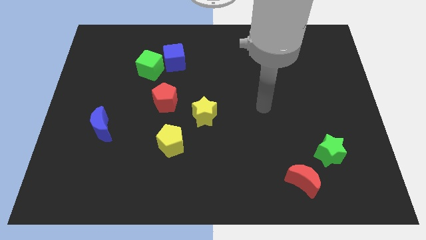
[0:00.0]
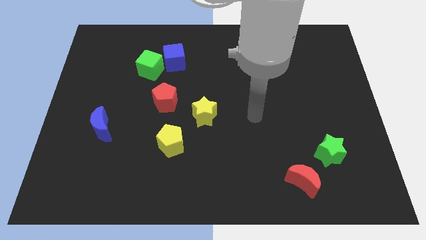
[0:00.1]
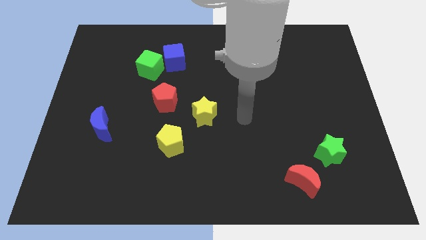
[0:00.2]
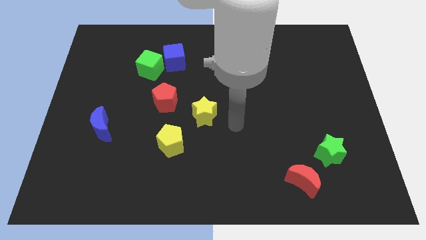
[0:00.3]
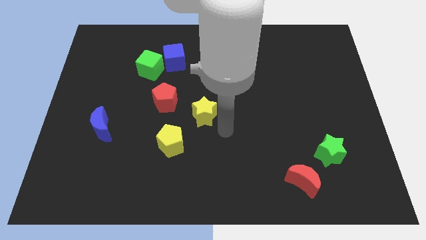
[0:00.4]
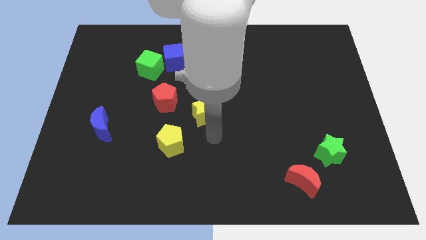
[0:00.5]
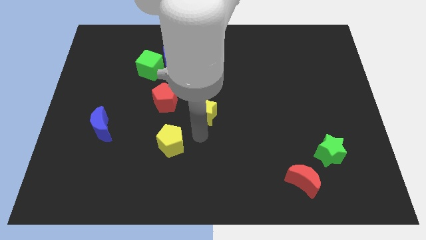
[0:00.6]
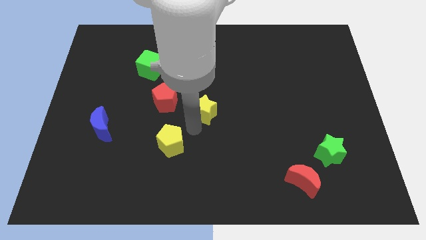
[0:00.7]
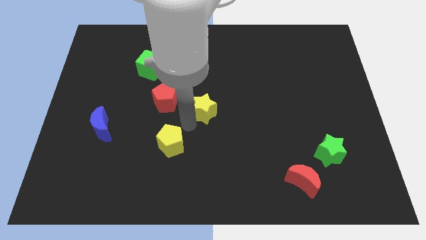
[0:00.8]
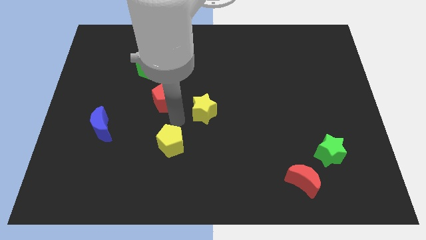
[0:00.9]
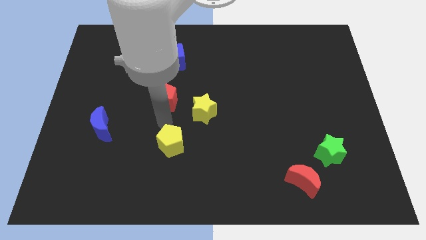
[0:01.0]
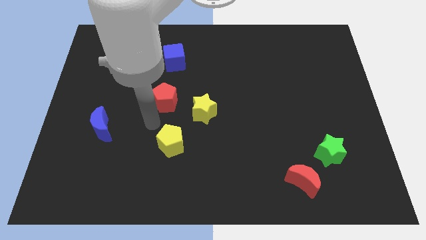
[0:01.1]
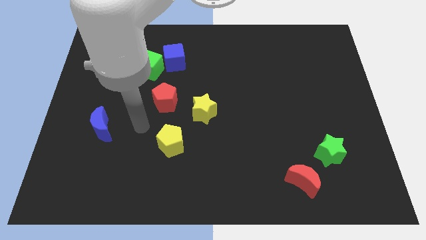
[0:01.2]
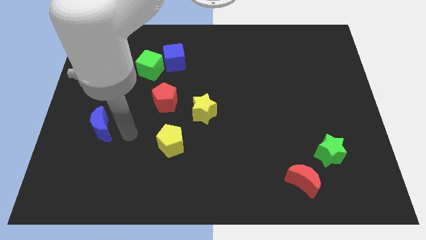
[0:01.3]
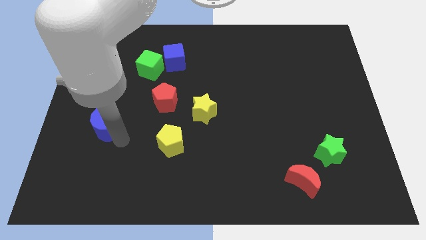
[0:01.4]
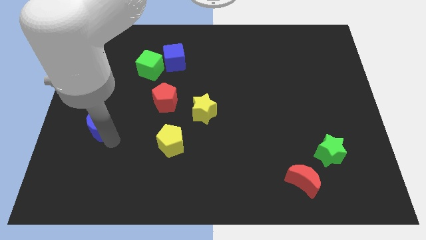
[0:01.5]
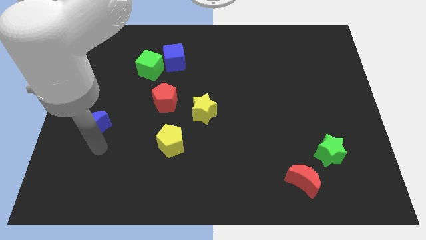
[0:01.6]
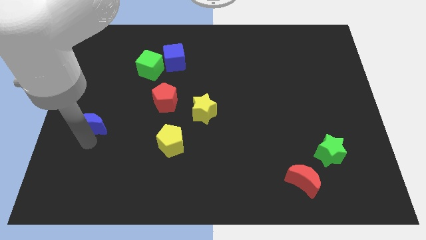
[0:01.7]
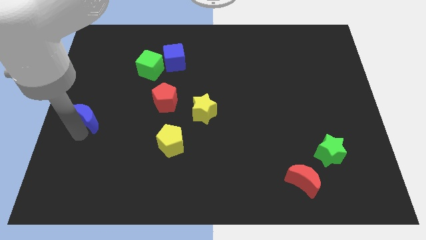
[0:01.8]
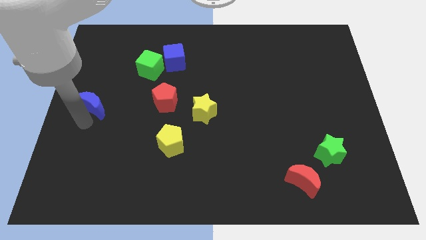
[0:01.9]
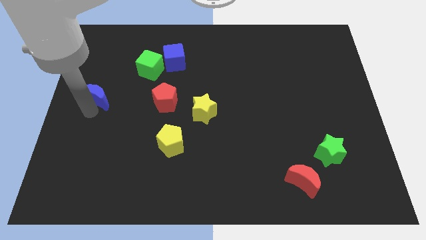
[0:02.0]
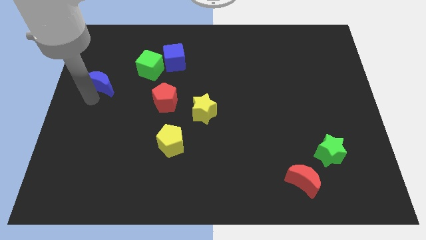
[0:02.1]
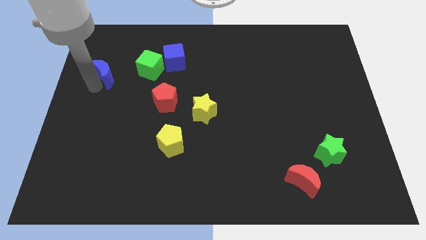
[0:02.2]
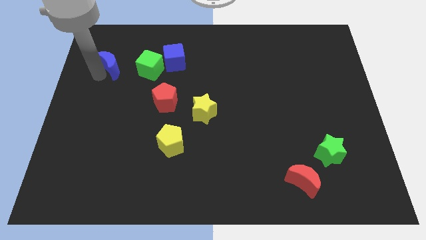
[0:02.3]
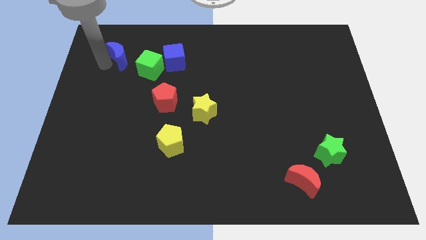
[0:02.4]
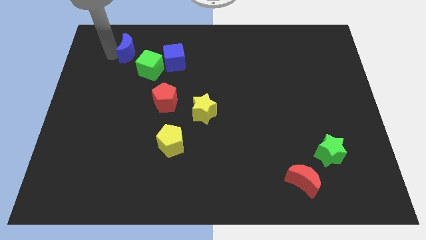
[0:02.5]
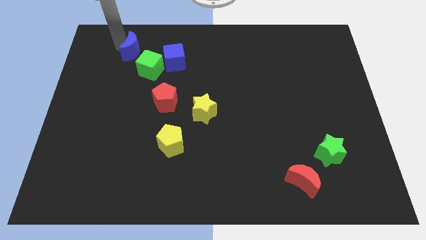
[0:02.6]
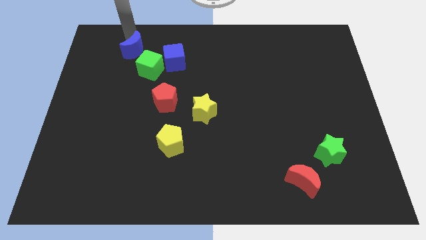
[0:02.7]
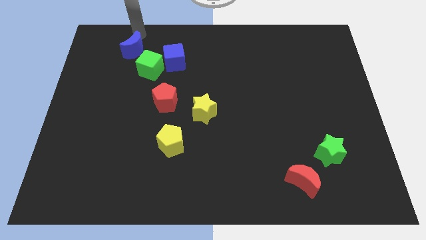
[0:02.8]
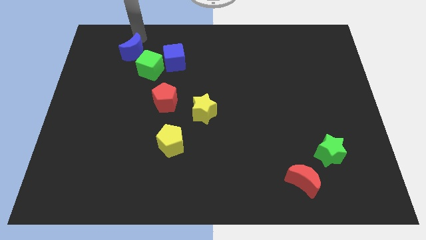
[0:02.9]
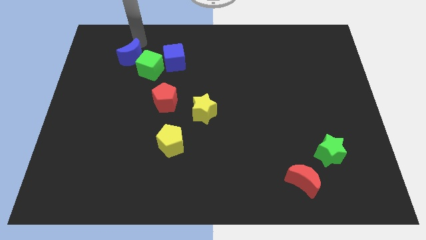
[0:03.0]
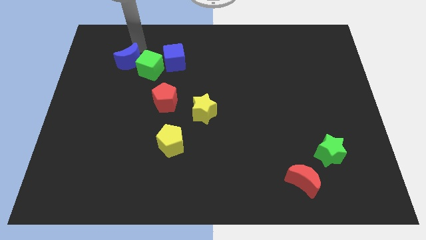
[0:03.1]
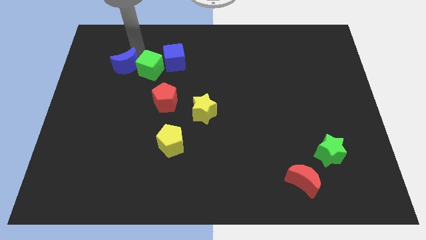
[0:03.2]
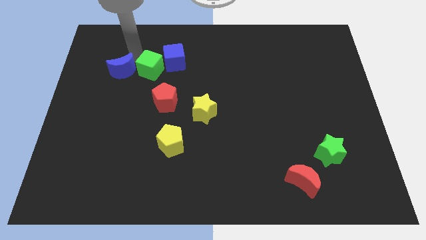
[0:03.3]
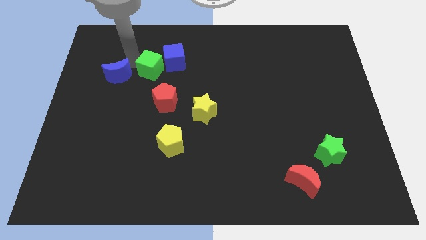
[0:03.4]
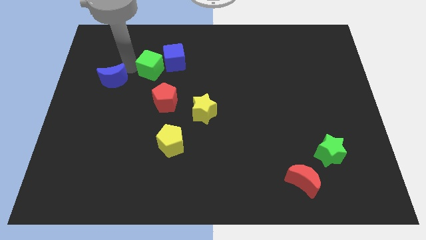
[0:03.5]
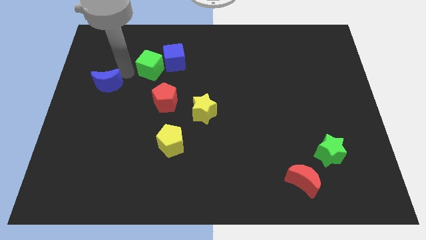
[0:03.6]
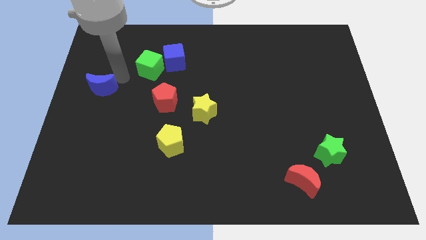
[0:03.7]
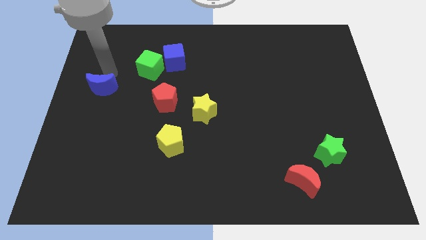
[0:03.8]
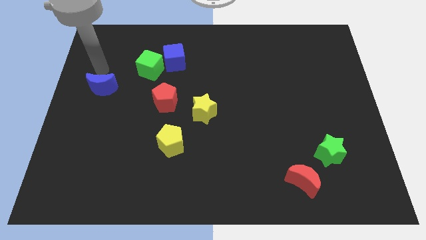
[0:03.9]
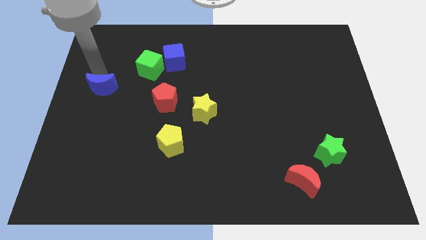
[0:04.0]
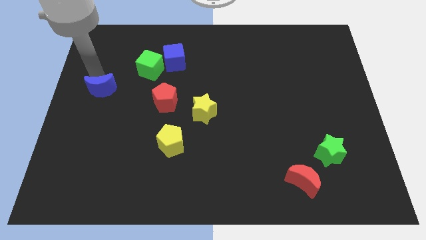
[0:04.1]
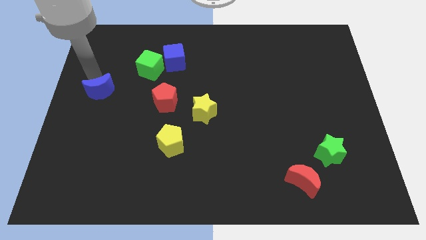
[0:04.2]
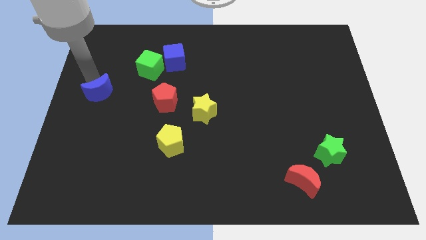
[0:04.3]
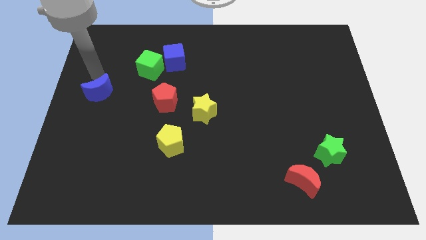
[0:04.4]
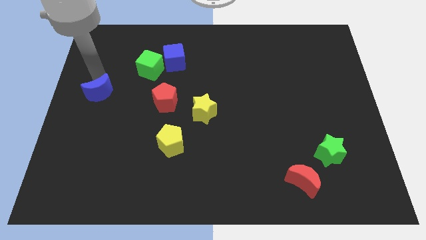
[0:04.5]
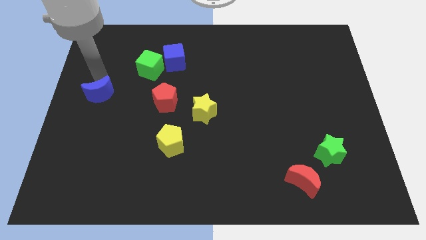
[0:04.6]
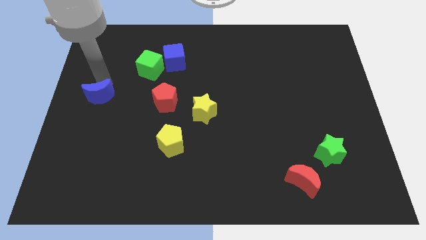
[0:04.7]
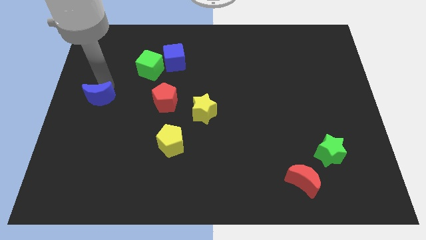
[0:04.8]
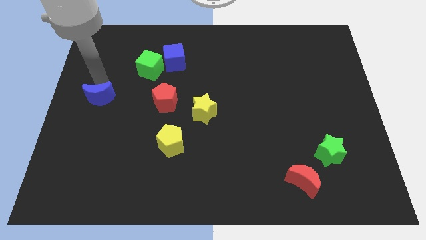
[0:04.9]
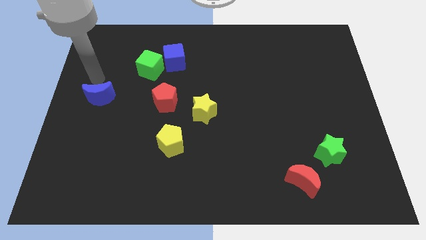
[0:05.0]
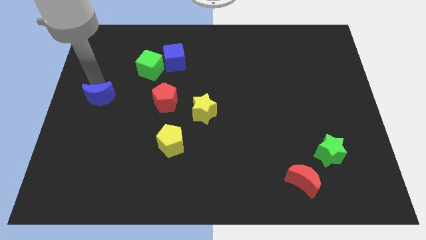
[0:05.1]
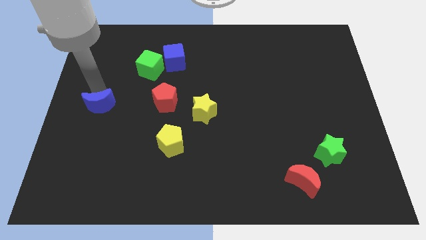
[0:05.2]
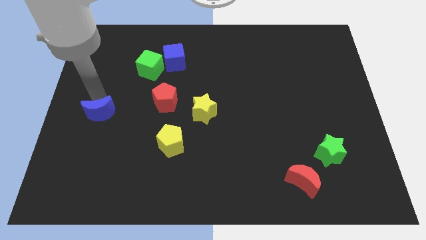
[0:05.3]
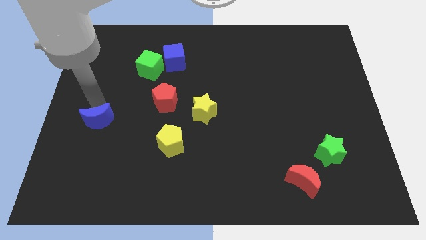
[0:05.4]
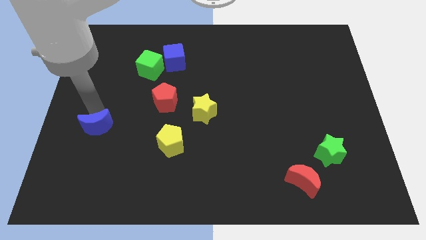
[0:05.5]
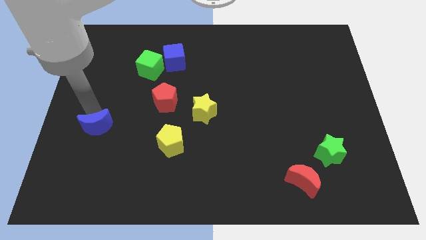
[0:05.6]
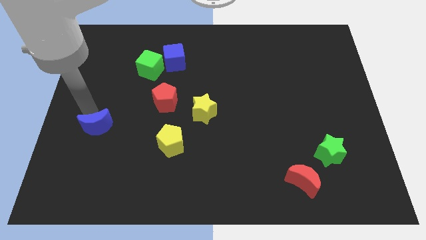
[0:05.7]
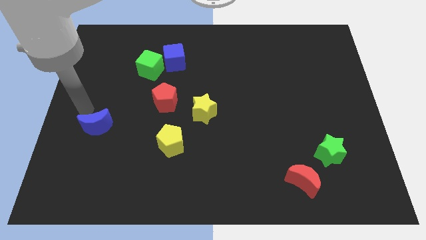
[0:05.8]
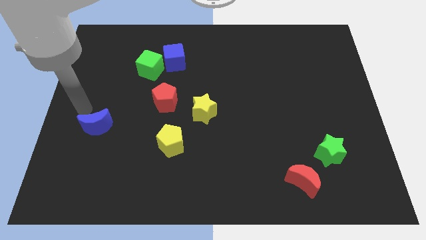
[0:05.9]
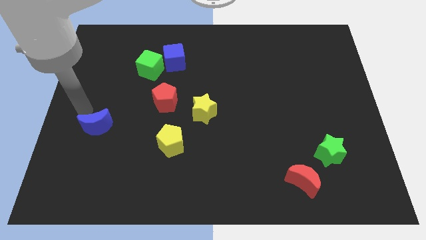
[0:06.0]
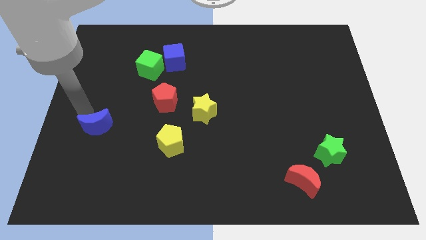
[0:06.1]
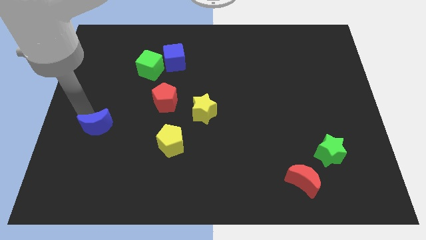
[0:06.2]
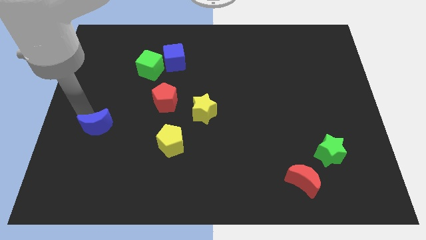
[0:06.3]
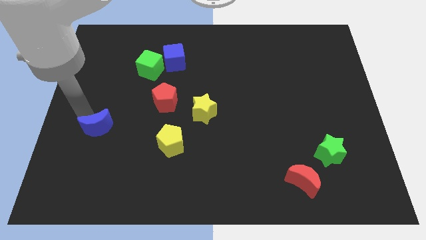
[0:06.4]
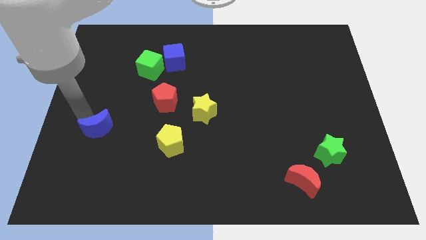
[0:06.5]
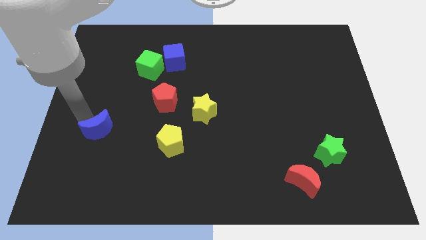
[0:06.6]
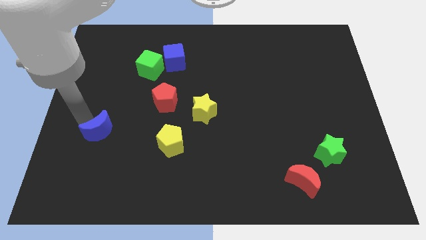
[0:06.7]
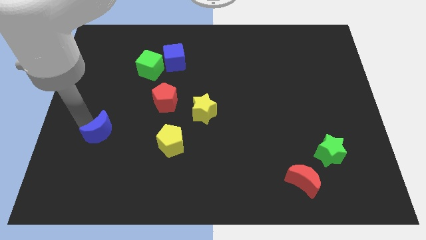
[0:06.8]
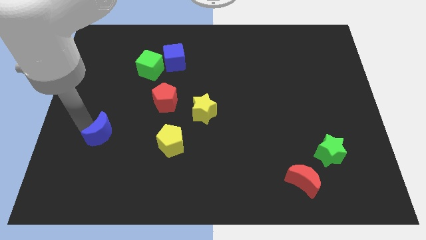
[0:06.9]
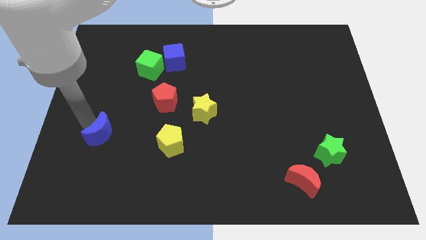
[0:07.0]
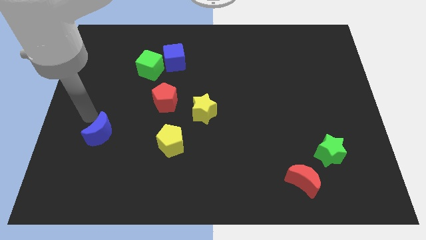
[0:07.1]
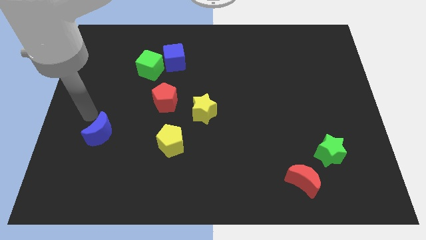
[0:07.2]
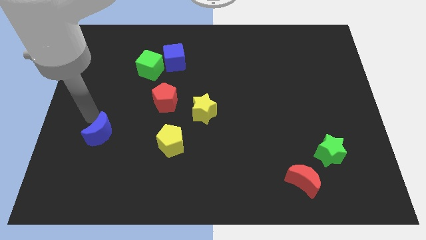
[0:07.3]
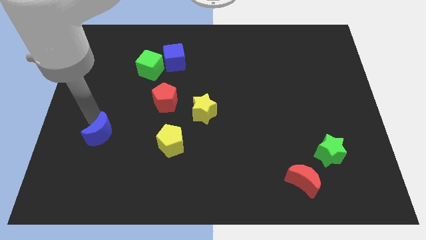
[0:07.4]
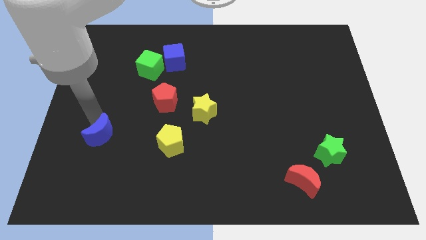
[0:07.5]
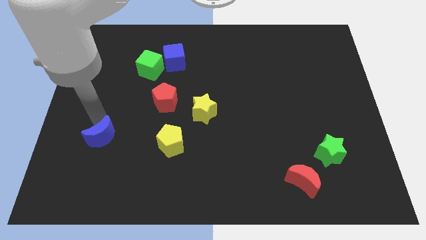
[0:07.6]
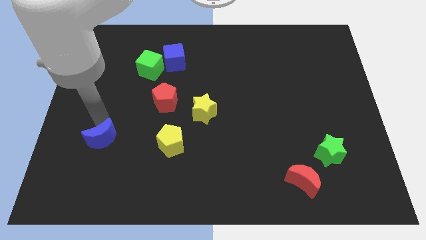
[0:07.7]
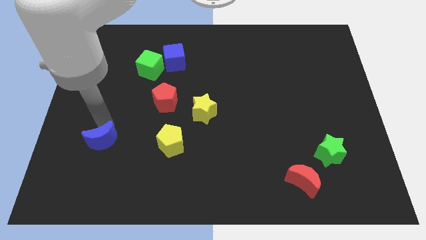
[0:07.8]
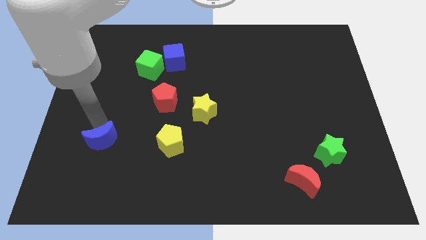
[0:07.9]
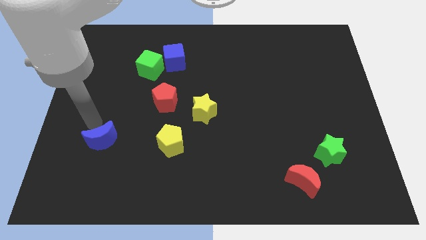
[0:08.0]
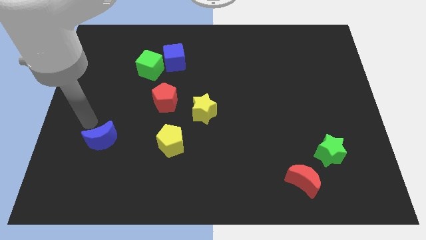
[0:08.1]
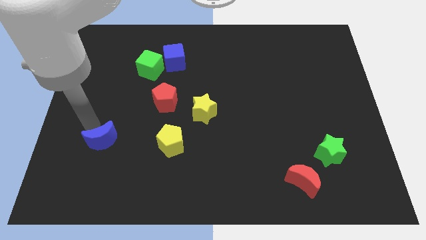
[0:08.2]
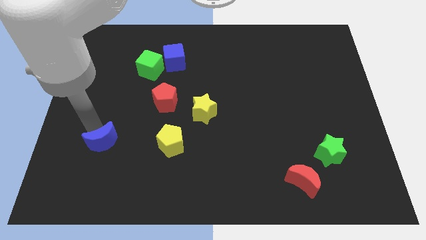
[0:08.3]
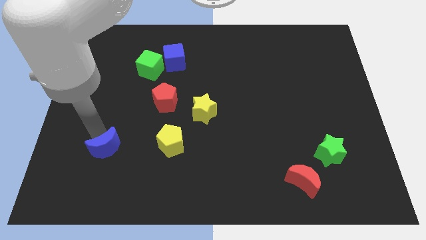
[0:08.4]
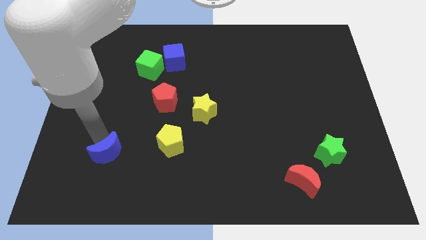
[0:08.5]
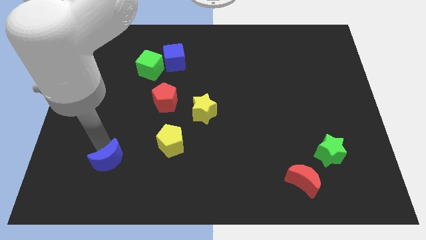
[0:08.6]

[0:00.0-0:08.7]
slightly move the blue moon down and to the right diagonally
